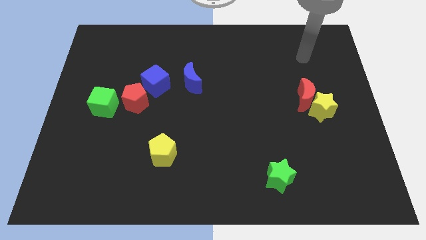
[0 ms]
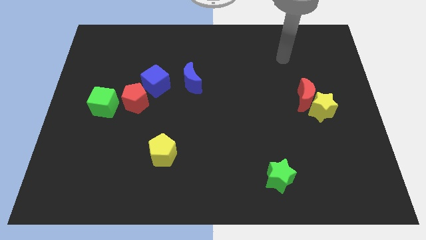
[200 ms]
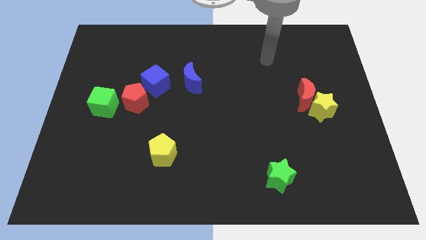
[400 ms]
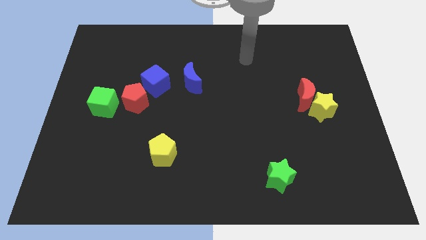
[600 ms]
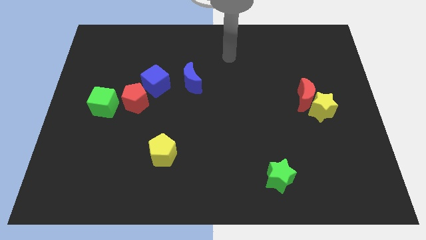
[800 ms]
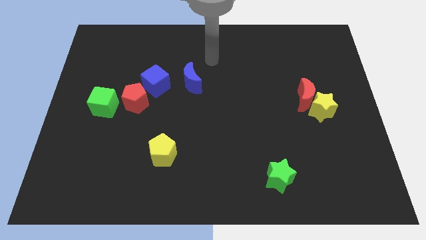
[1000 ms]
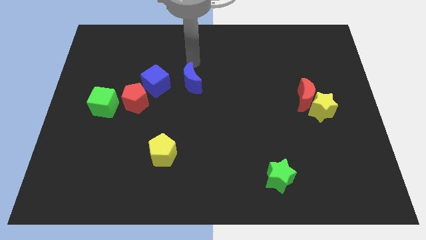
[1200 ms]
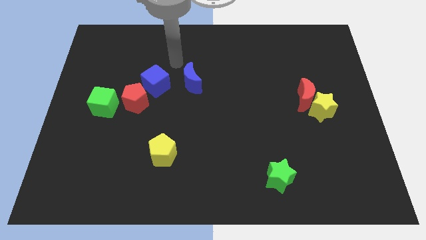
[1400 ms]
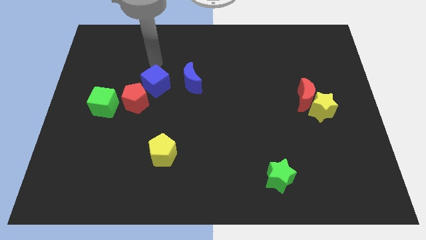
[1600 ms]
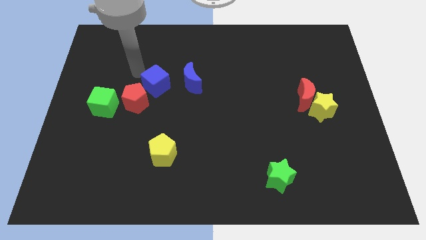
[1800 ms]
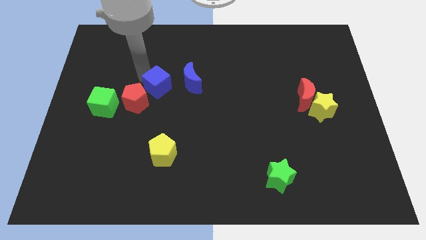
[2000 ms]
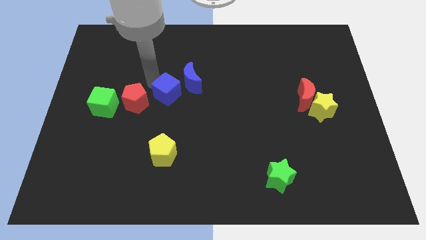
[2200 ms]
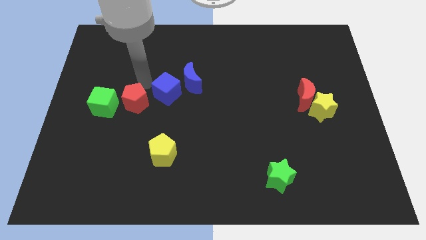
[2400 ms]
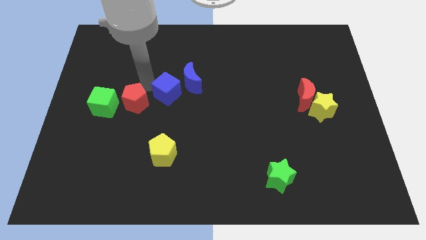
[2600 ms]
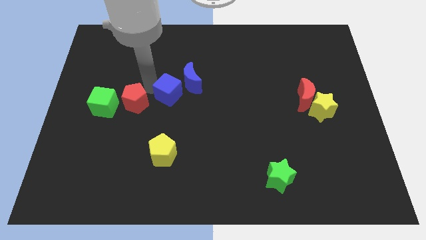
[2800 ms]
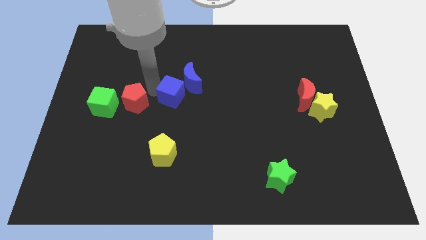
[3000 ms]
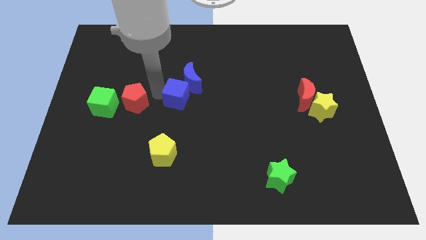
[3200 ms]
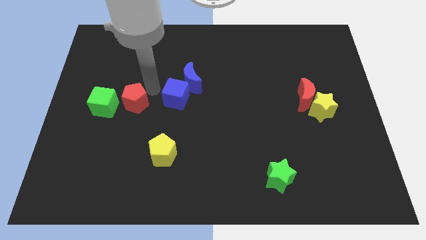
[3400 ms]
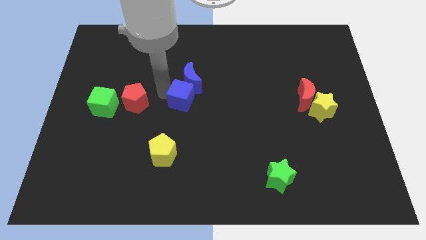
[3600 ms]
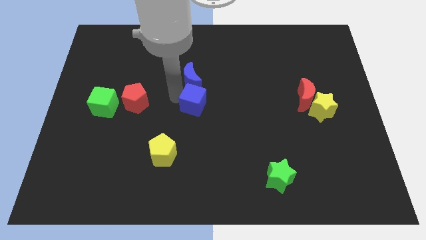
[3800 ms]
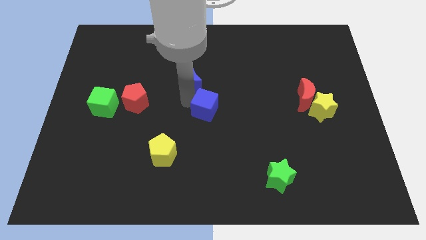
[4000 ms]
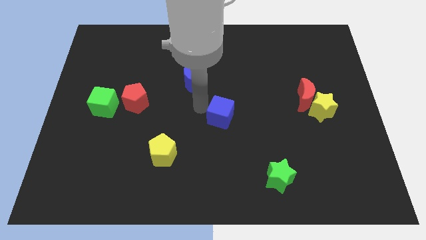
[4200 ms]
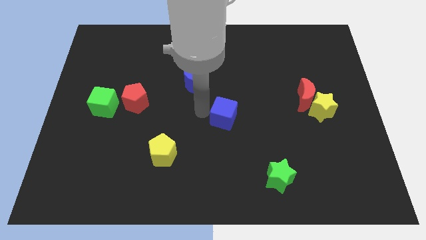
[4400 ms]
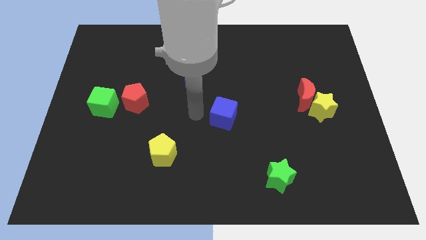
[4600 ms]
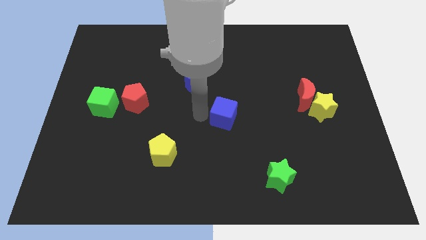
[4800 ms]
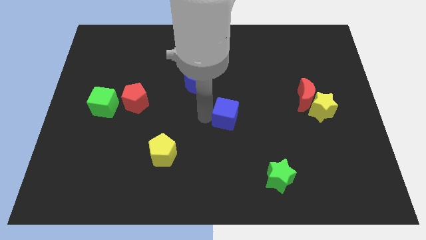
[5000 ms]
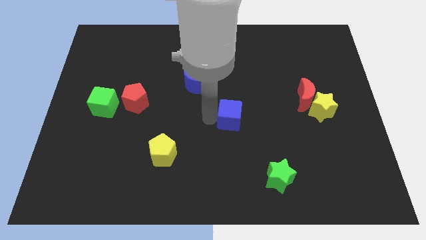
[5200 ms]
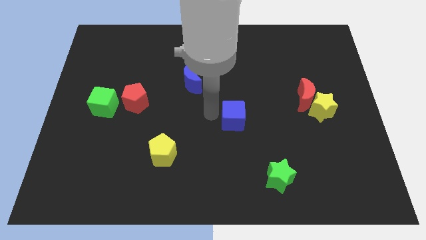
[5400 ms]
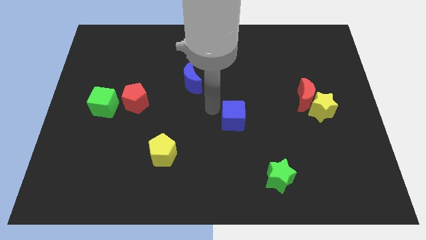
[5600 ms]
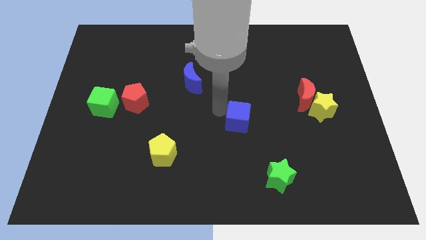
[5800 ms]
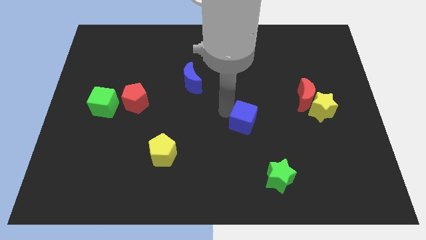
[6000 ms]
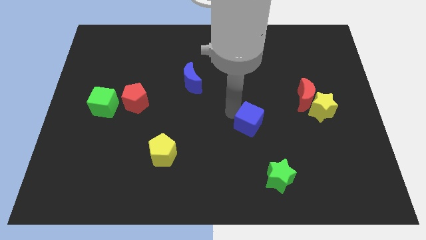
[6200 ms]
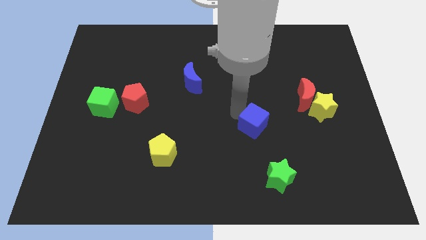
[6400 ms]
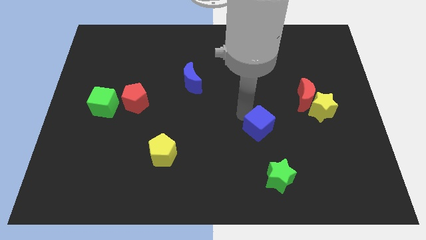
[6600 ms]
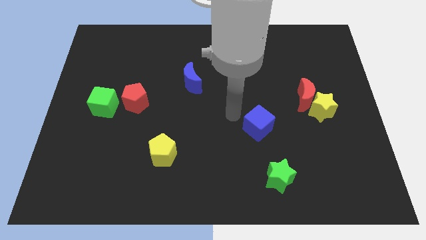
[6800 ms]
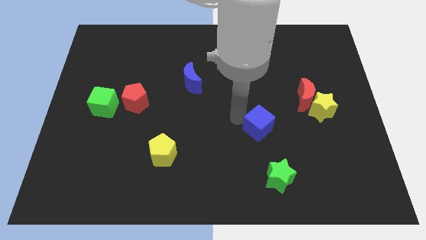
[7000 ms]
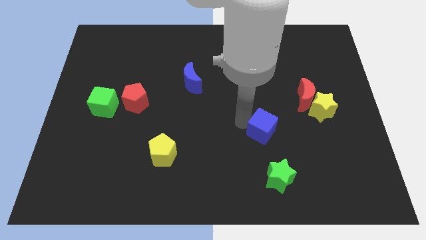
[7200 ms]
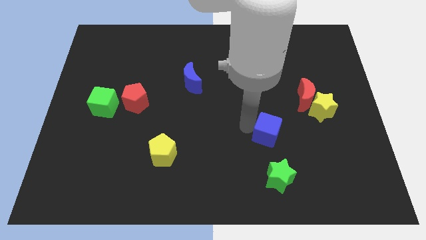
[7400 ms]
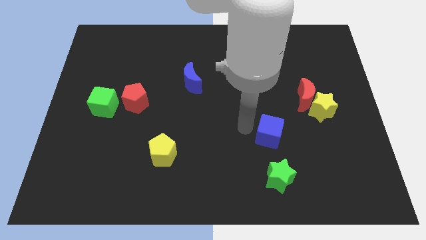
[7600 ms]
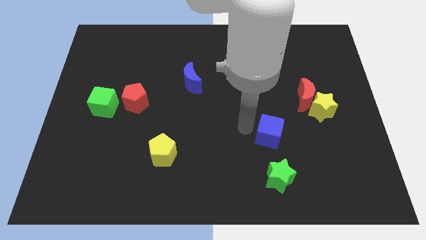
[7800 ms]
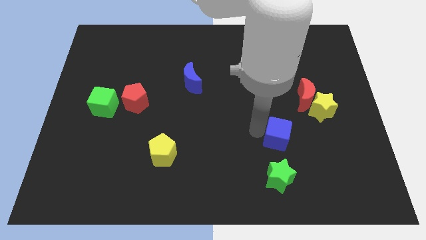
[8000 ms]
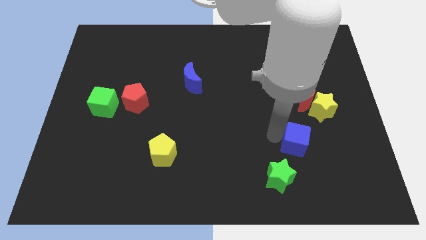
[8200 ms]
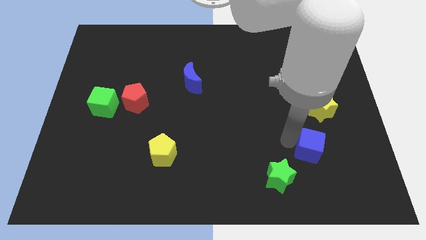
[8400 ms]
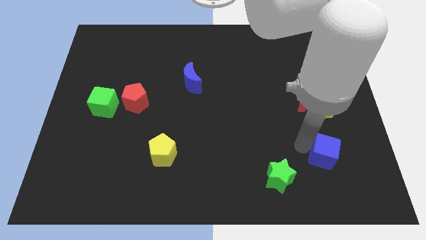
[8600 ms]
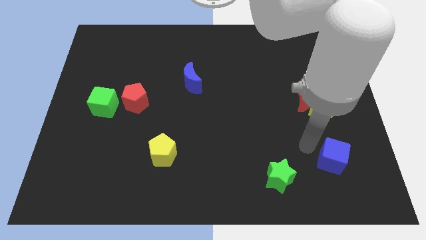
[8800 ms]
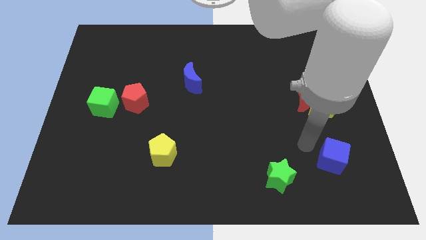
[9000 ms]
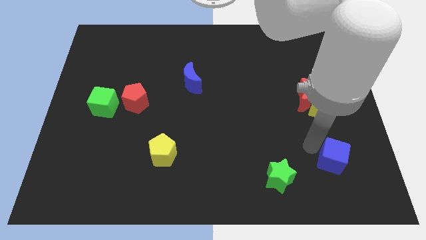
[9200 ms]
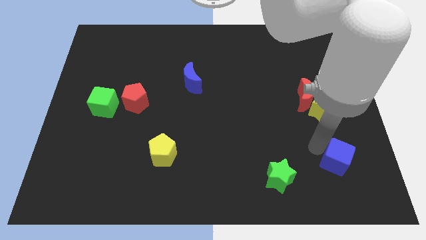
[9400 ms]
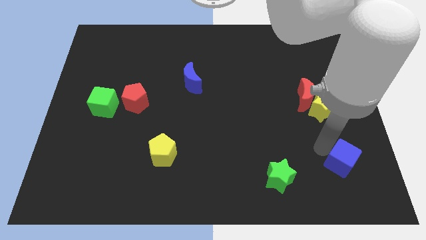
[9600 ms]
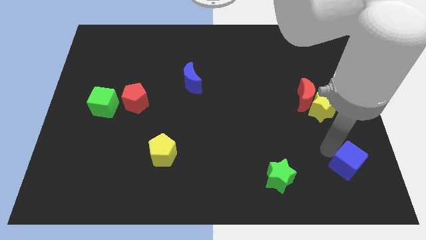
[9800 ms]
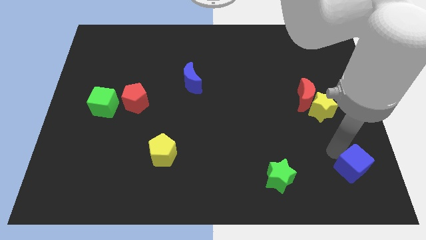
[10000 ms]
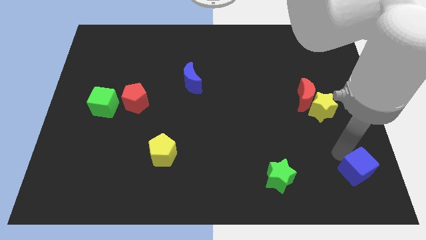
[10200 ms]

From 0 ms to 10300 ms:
push the blue cube to the bottom right of the board
